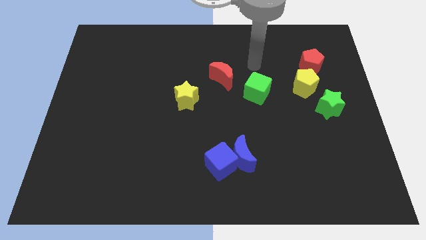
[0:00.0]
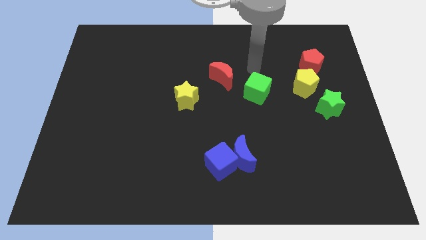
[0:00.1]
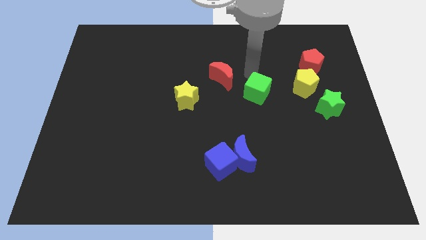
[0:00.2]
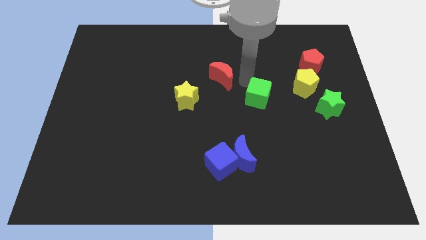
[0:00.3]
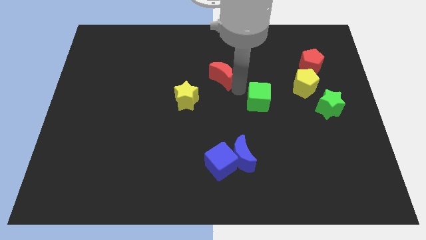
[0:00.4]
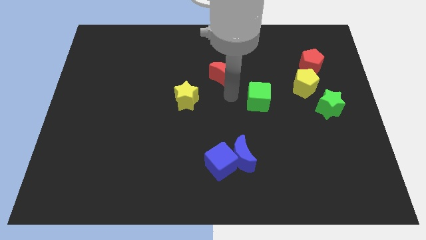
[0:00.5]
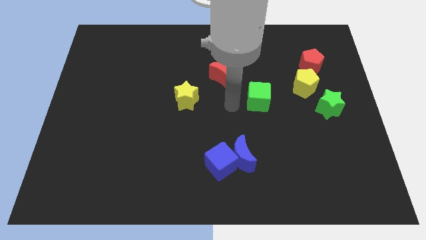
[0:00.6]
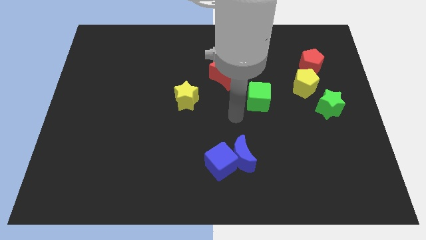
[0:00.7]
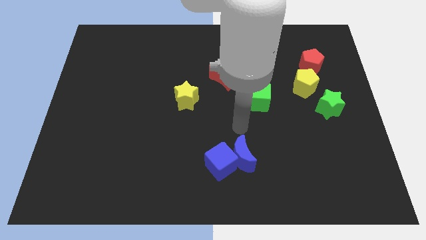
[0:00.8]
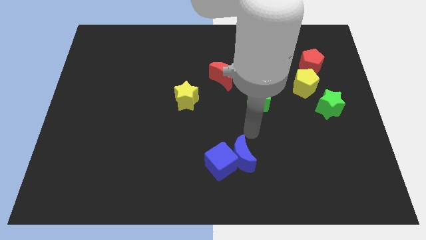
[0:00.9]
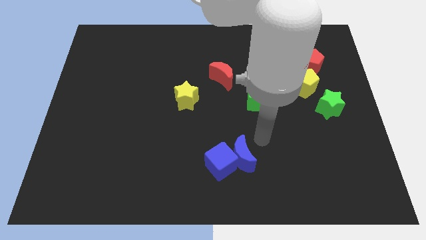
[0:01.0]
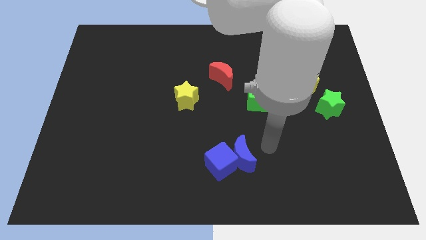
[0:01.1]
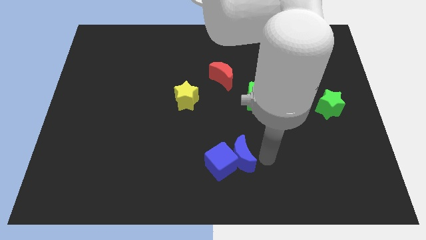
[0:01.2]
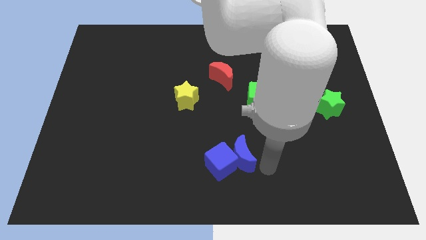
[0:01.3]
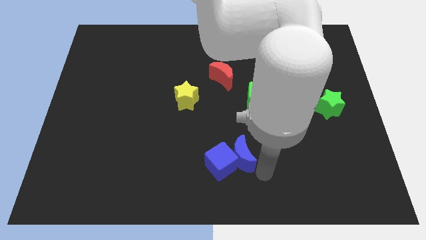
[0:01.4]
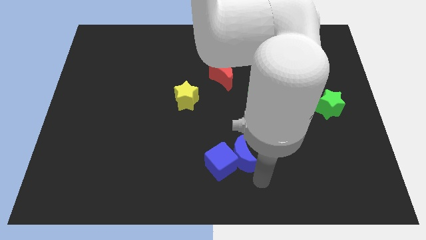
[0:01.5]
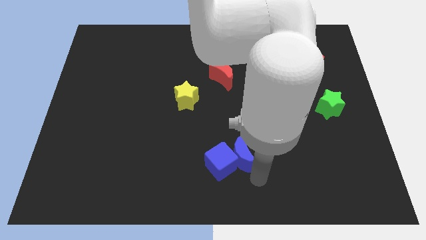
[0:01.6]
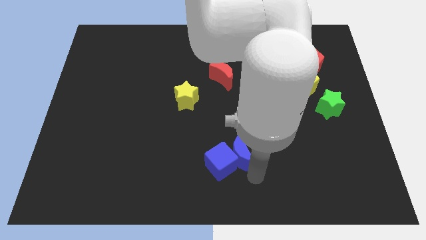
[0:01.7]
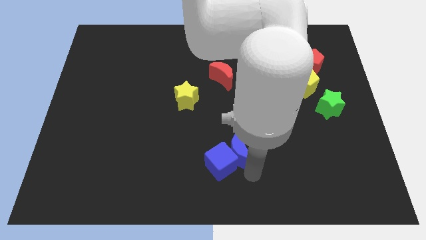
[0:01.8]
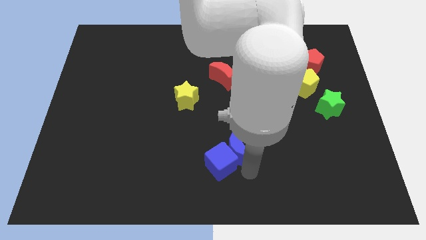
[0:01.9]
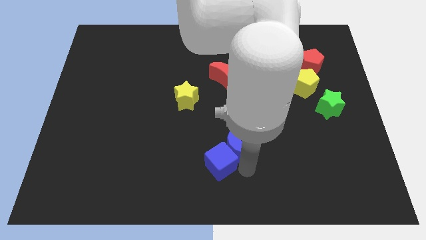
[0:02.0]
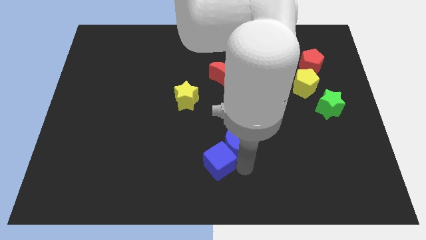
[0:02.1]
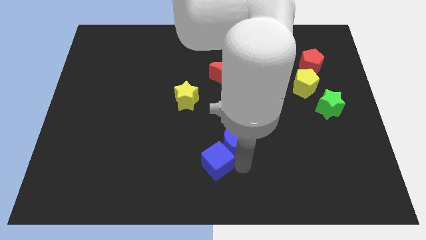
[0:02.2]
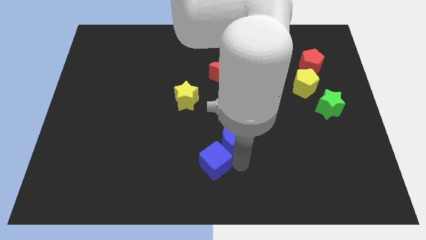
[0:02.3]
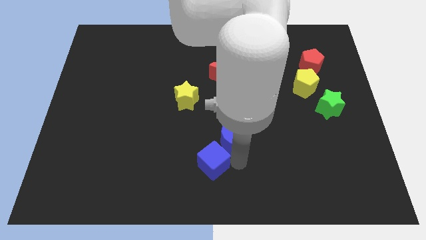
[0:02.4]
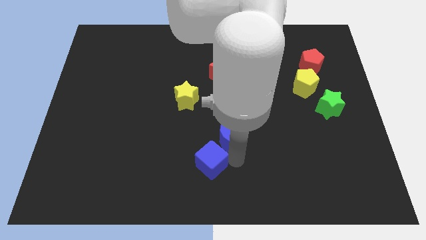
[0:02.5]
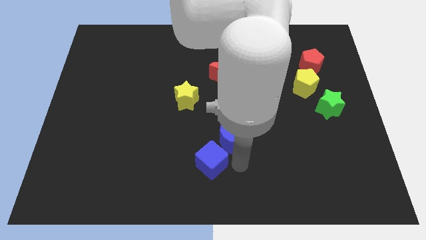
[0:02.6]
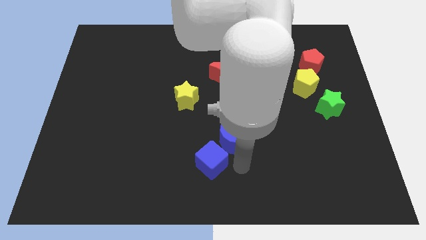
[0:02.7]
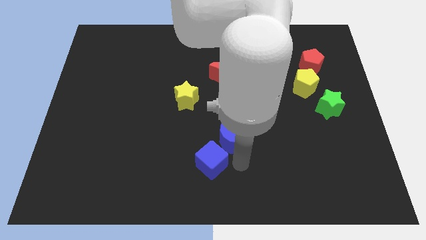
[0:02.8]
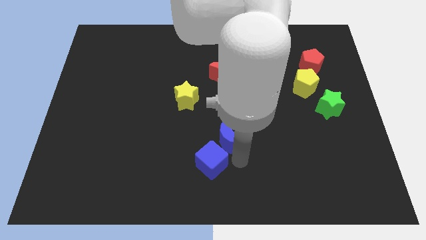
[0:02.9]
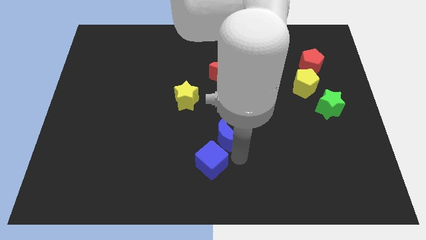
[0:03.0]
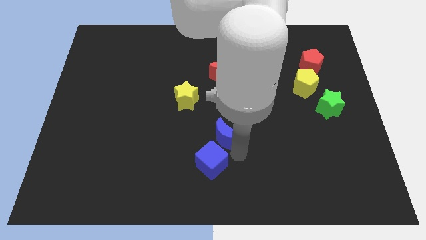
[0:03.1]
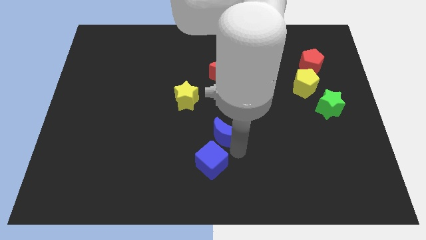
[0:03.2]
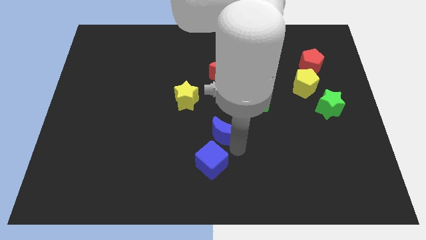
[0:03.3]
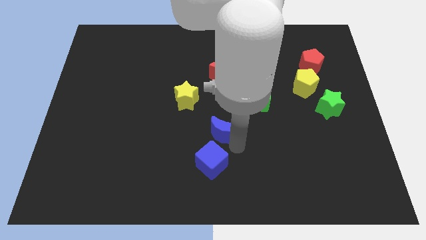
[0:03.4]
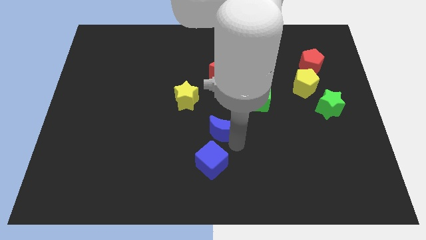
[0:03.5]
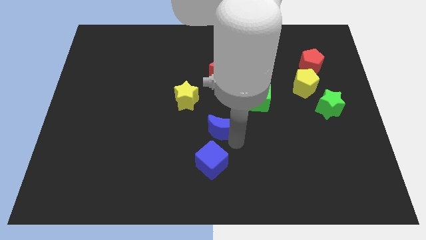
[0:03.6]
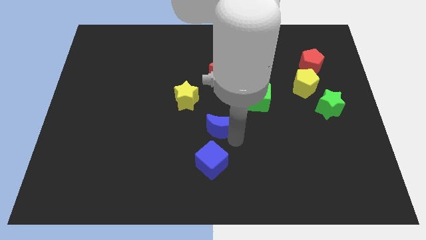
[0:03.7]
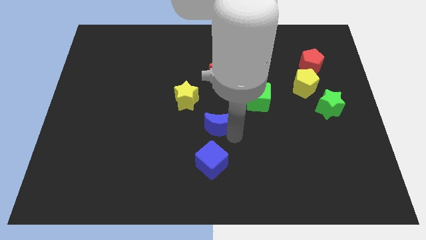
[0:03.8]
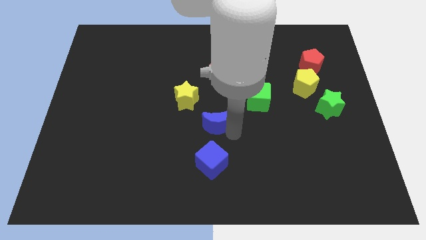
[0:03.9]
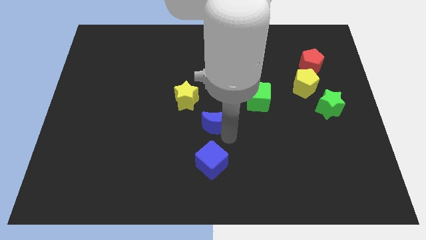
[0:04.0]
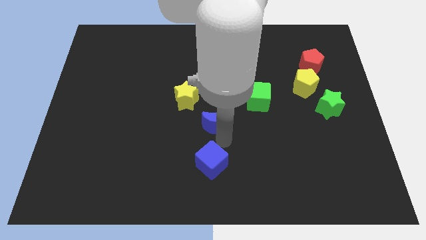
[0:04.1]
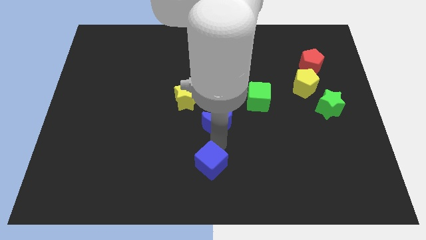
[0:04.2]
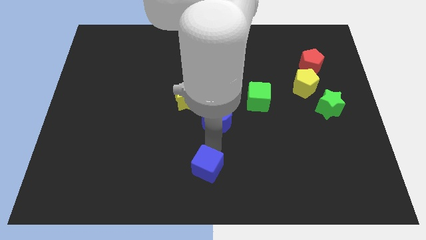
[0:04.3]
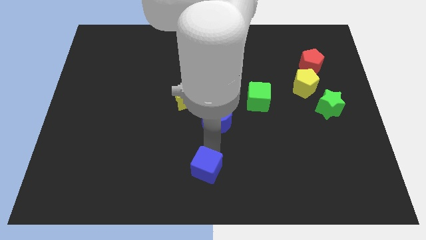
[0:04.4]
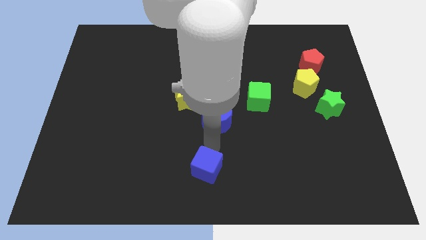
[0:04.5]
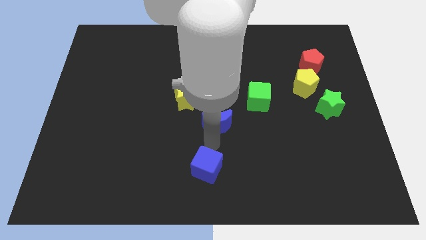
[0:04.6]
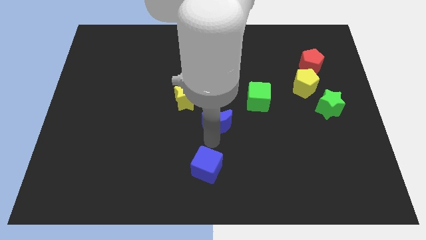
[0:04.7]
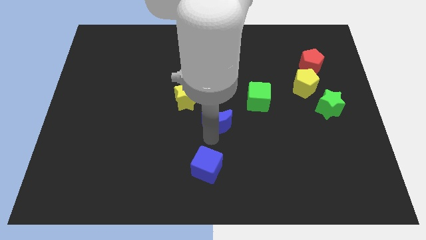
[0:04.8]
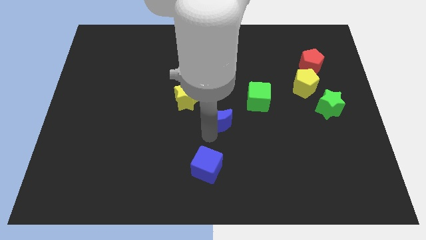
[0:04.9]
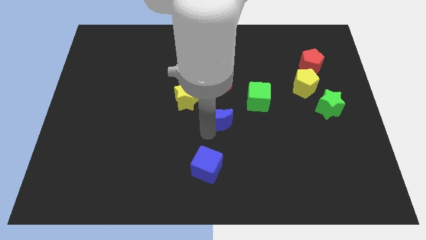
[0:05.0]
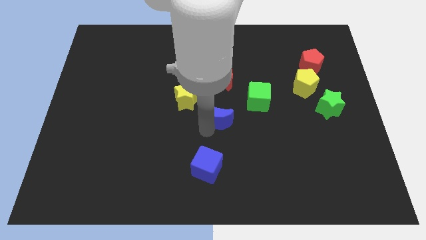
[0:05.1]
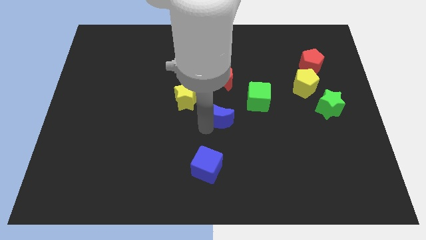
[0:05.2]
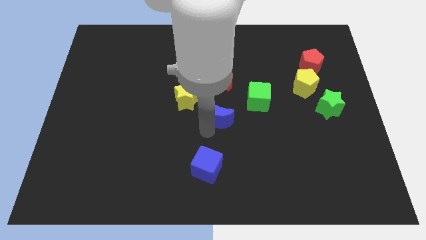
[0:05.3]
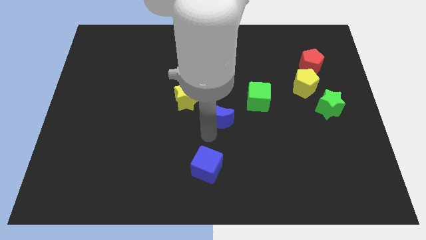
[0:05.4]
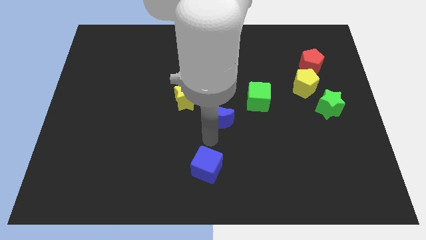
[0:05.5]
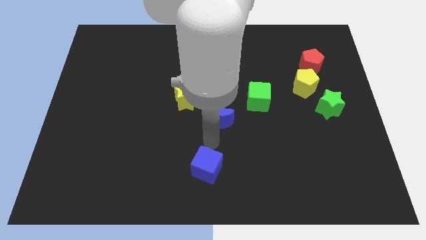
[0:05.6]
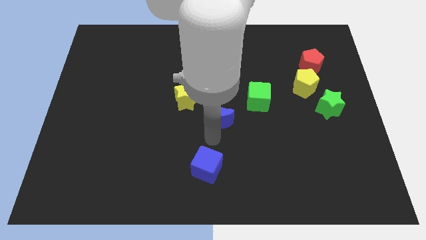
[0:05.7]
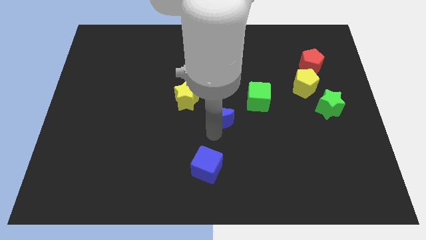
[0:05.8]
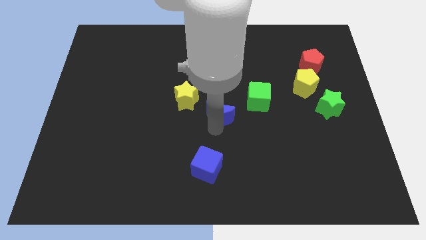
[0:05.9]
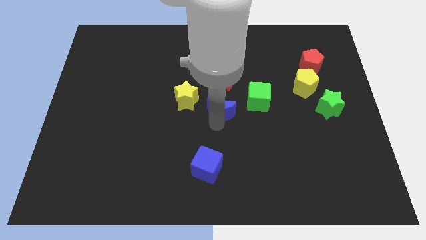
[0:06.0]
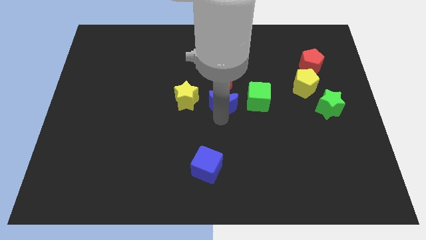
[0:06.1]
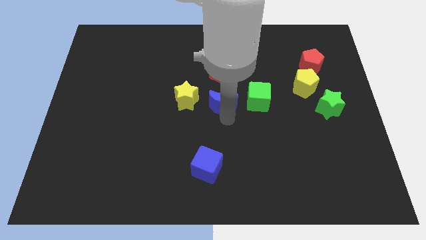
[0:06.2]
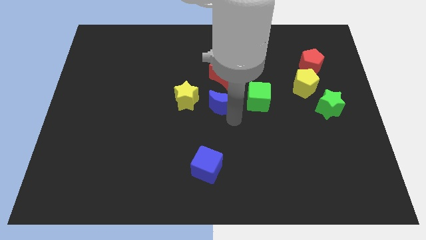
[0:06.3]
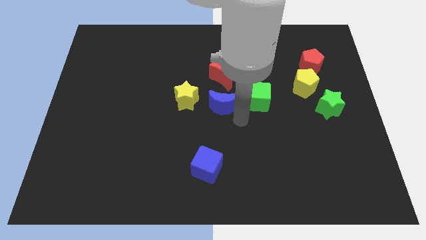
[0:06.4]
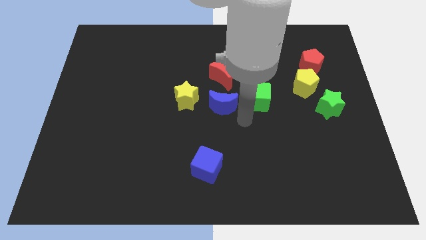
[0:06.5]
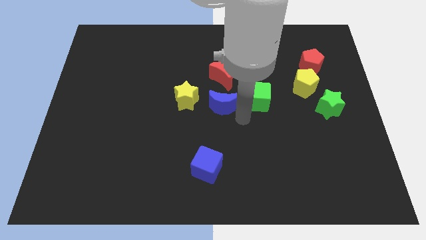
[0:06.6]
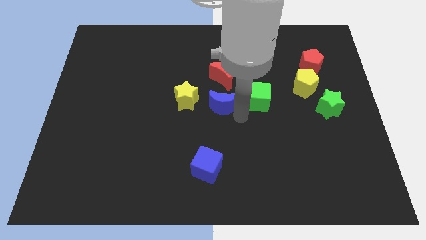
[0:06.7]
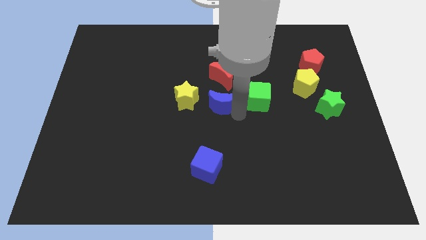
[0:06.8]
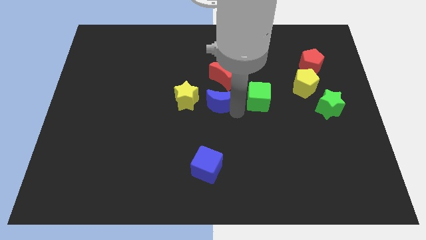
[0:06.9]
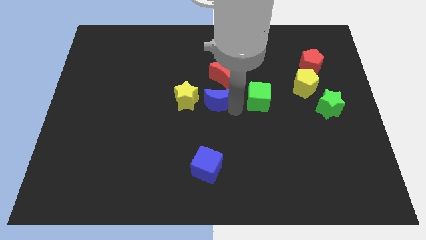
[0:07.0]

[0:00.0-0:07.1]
push the blue moon diagonally down and to the left of the red moon

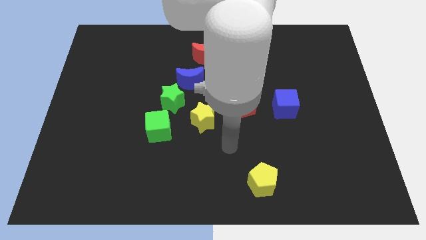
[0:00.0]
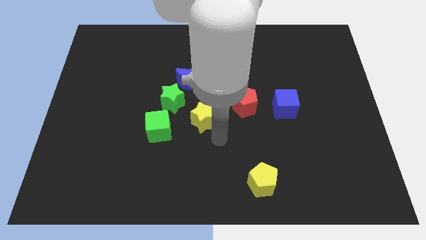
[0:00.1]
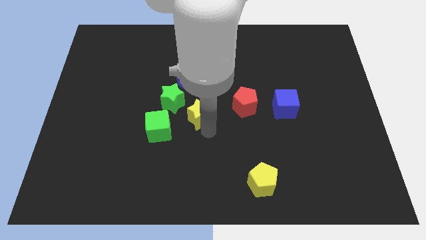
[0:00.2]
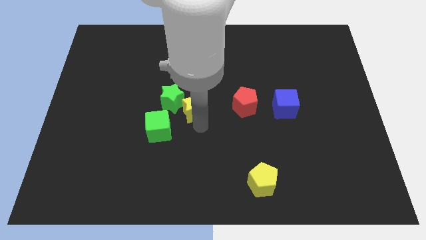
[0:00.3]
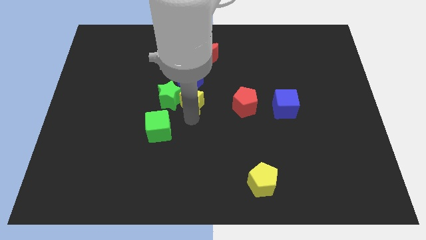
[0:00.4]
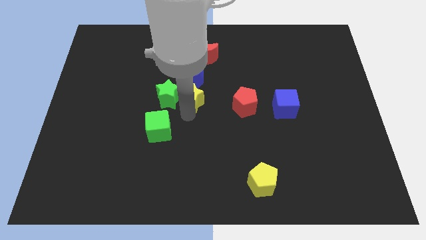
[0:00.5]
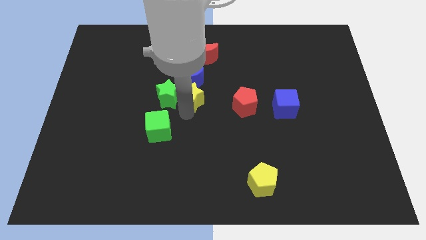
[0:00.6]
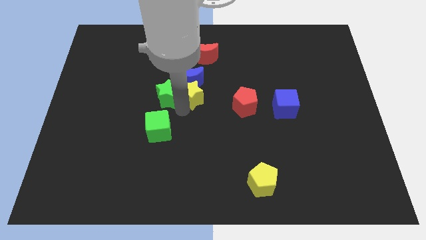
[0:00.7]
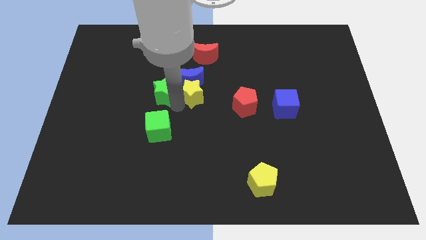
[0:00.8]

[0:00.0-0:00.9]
move the green star to the left of the blue moon
